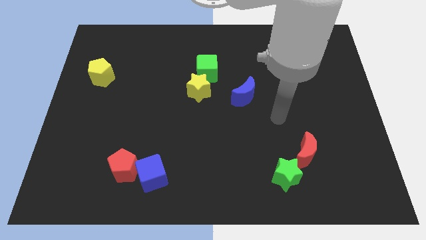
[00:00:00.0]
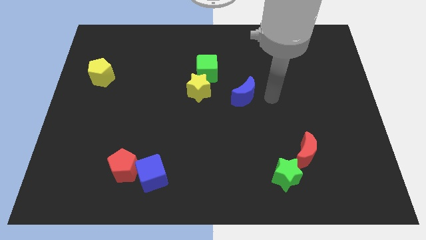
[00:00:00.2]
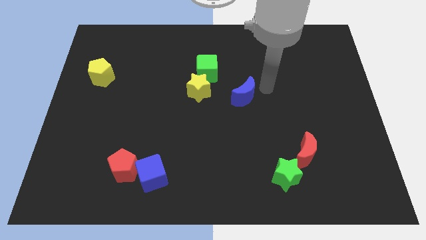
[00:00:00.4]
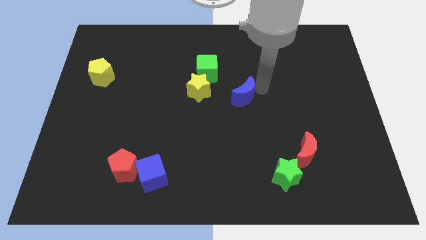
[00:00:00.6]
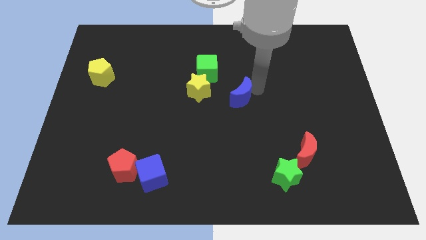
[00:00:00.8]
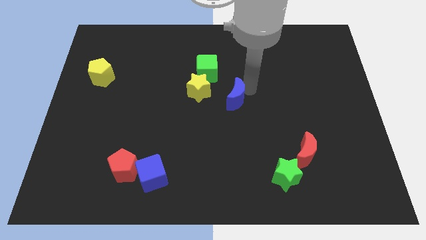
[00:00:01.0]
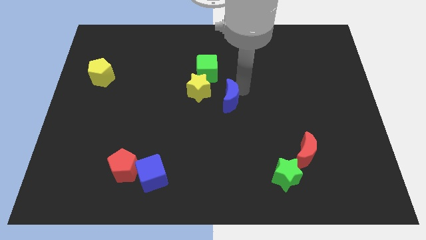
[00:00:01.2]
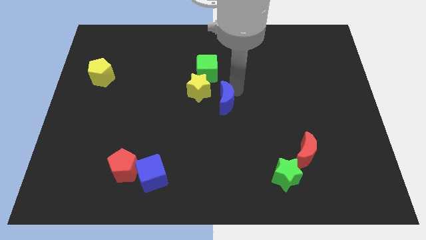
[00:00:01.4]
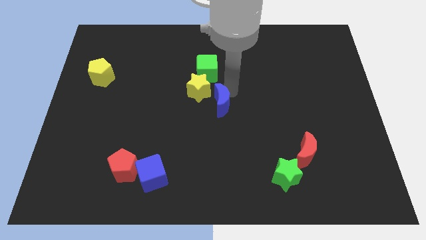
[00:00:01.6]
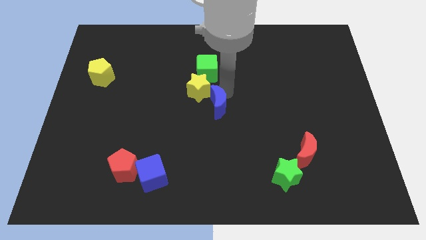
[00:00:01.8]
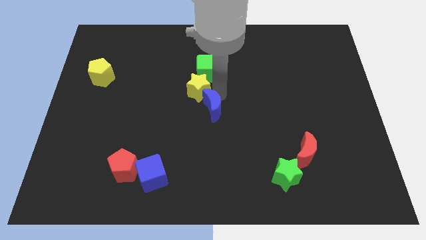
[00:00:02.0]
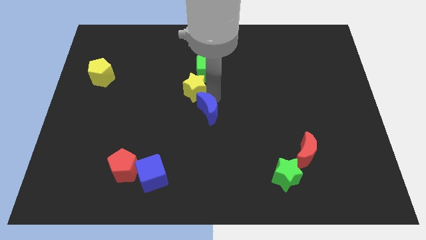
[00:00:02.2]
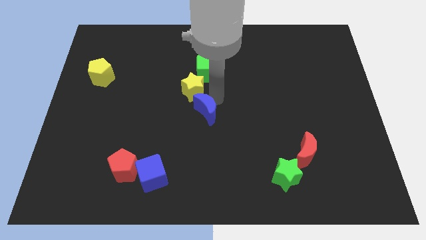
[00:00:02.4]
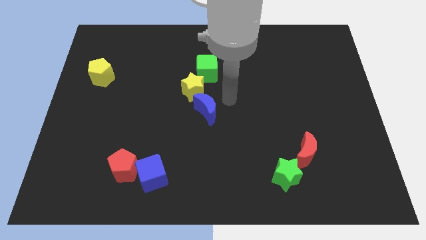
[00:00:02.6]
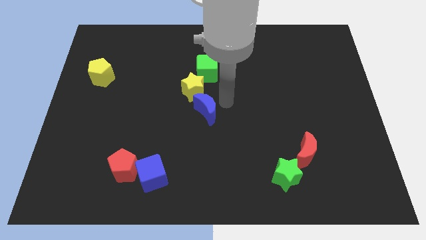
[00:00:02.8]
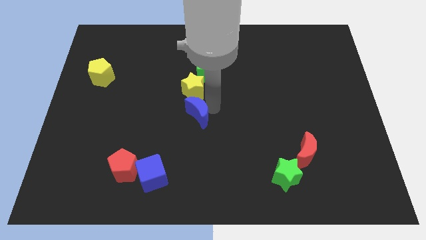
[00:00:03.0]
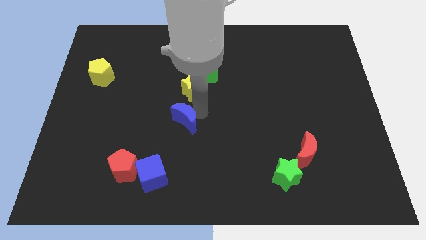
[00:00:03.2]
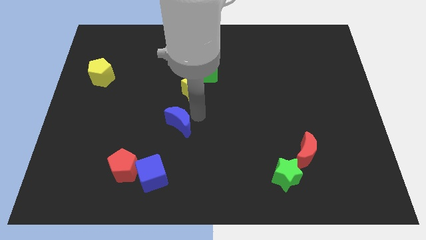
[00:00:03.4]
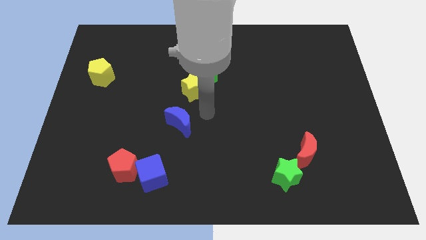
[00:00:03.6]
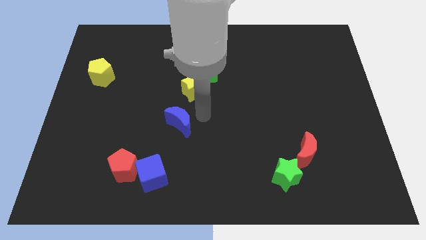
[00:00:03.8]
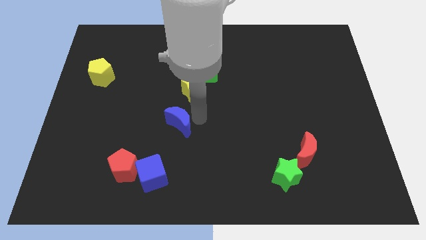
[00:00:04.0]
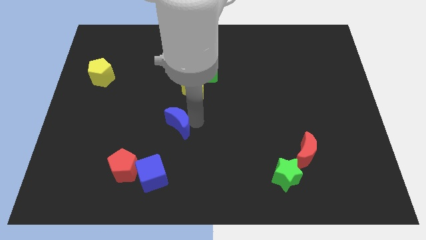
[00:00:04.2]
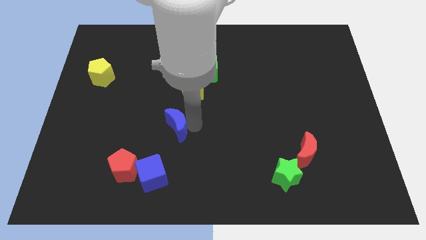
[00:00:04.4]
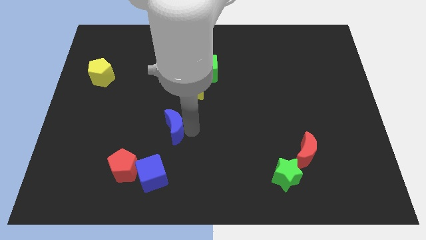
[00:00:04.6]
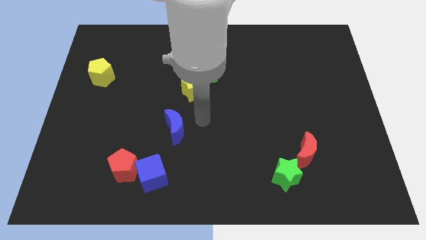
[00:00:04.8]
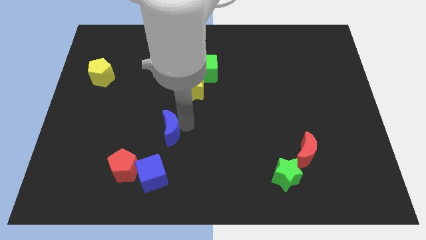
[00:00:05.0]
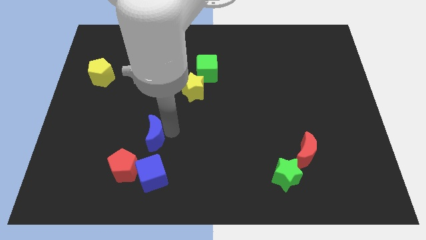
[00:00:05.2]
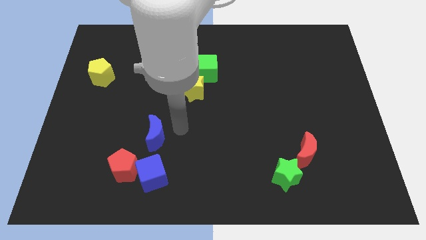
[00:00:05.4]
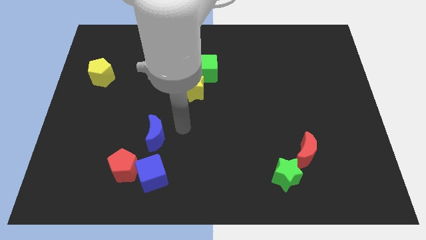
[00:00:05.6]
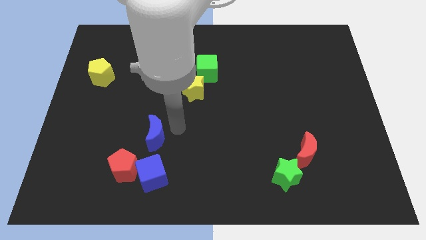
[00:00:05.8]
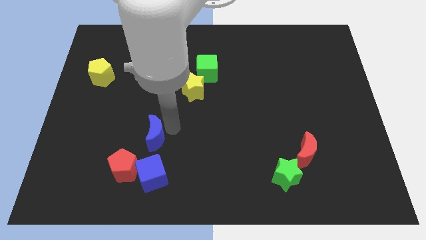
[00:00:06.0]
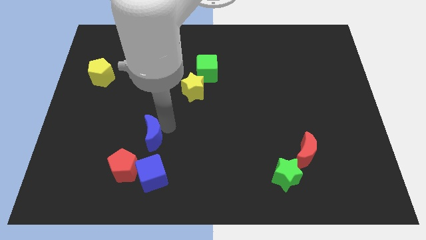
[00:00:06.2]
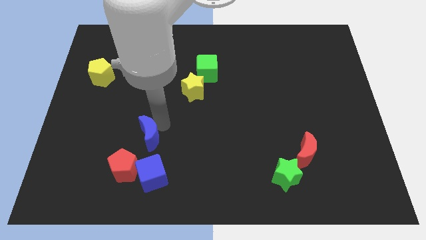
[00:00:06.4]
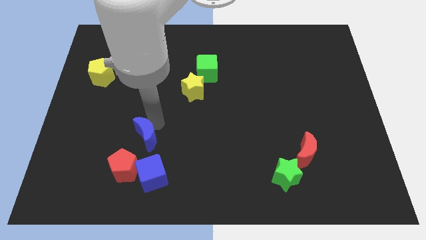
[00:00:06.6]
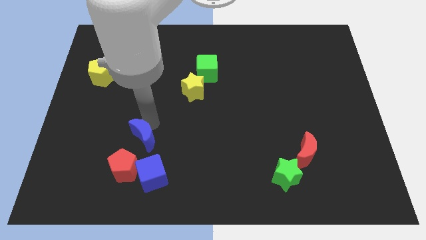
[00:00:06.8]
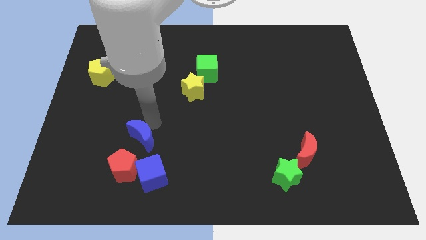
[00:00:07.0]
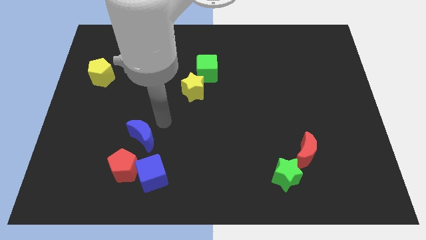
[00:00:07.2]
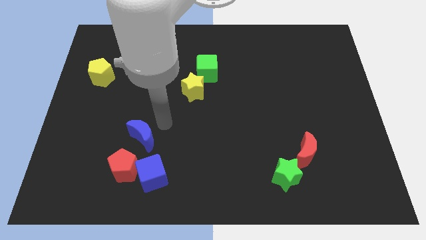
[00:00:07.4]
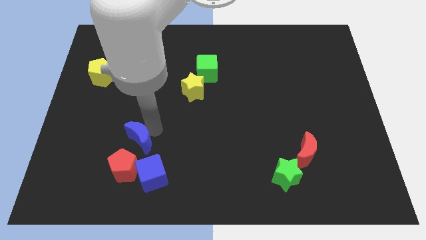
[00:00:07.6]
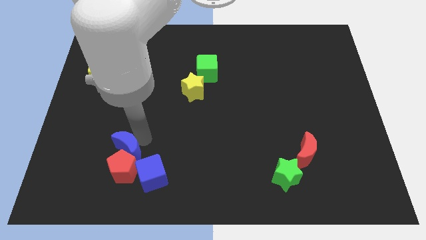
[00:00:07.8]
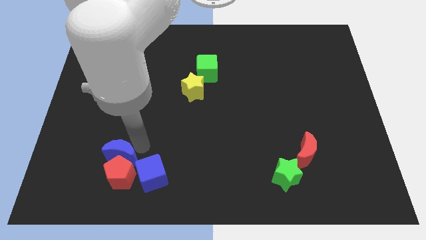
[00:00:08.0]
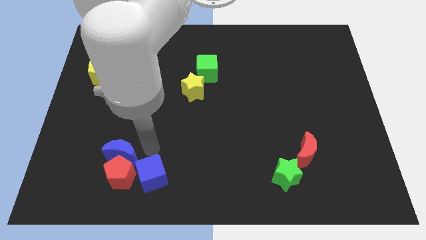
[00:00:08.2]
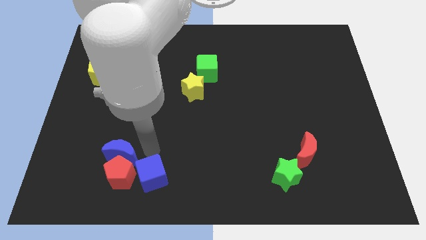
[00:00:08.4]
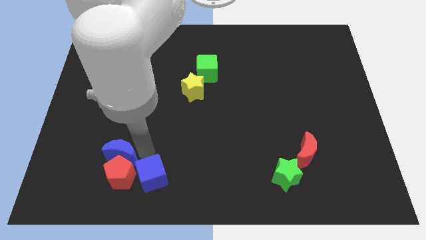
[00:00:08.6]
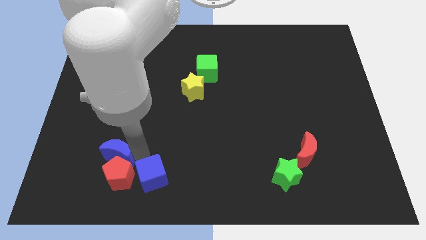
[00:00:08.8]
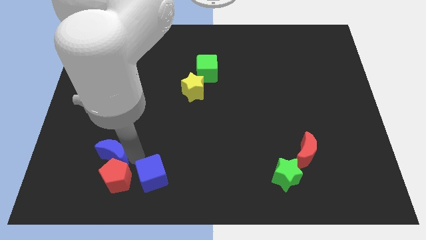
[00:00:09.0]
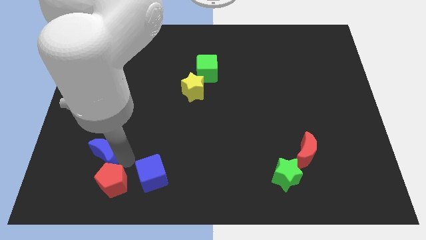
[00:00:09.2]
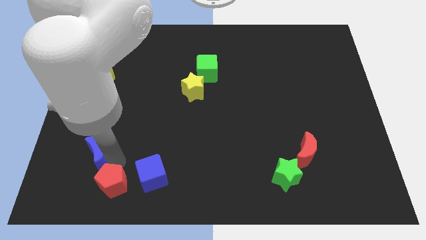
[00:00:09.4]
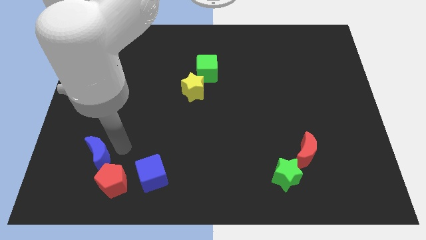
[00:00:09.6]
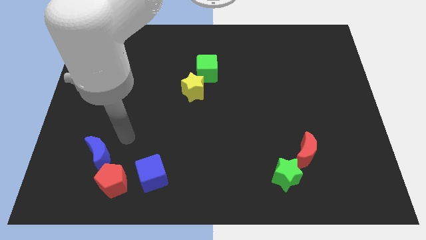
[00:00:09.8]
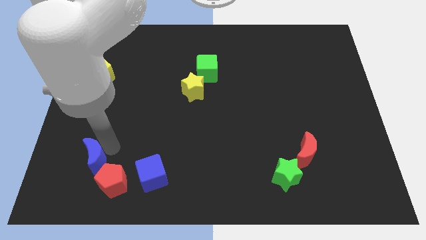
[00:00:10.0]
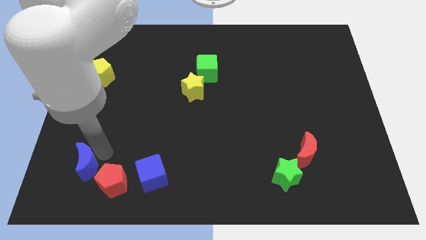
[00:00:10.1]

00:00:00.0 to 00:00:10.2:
move the blue moon to the left of the red pentagon

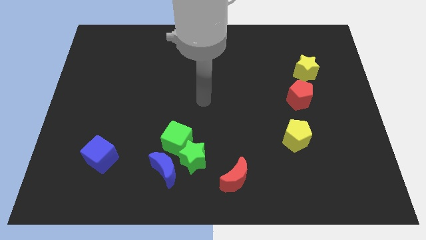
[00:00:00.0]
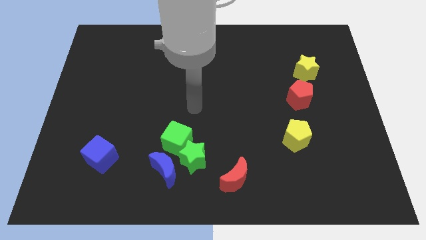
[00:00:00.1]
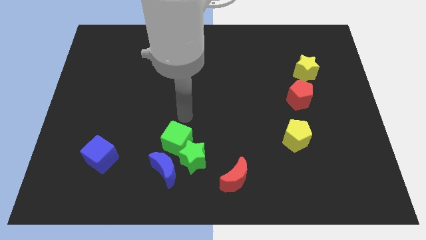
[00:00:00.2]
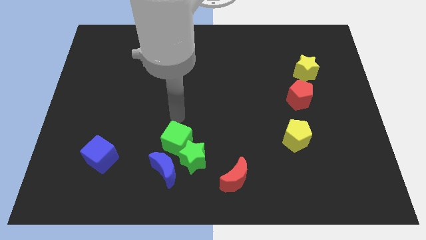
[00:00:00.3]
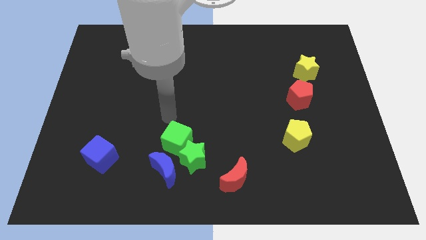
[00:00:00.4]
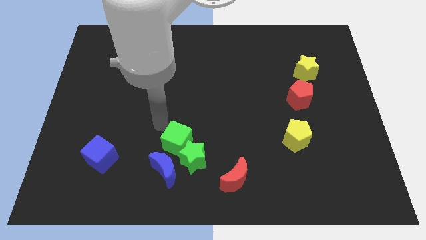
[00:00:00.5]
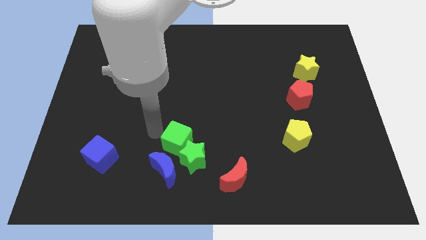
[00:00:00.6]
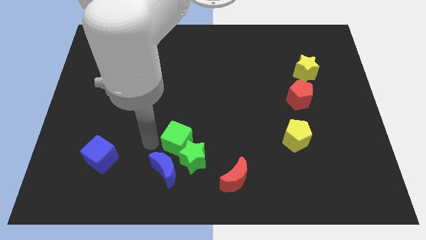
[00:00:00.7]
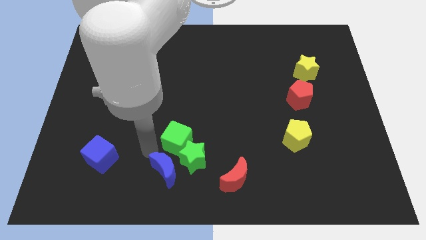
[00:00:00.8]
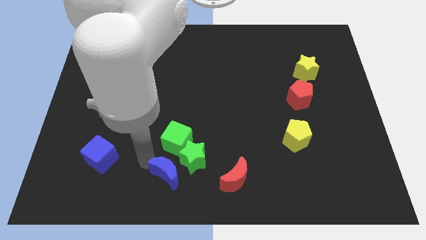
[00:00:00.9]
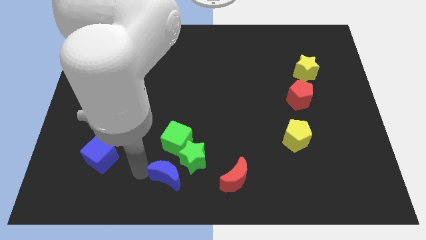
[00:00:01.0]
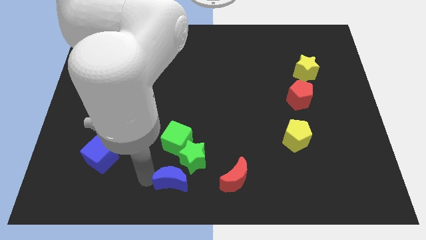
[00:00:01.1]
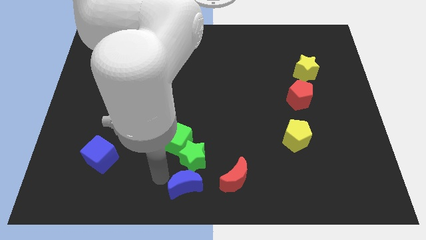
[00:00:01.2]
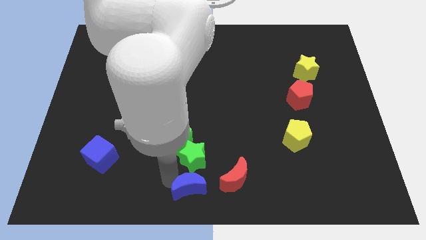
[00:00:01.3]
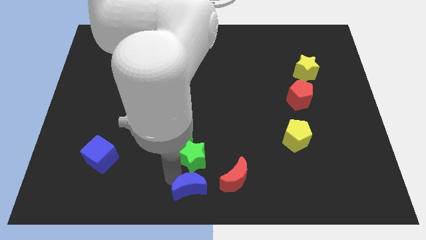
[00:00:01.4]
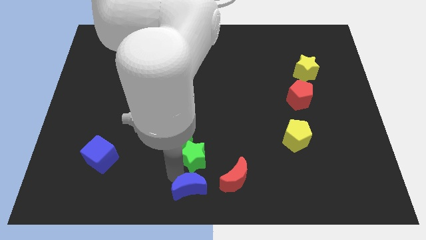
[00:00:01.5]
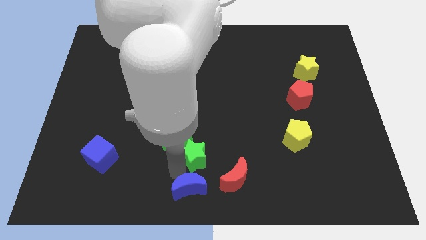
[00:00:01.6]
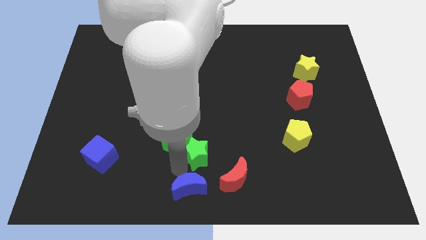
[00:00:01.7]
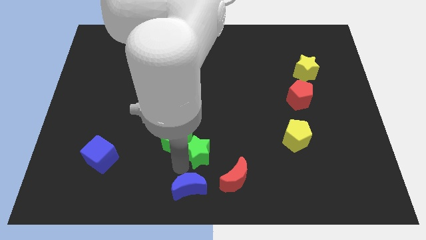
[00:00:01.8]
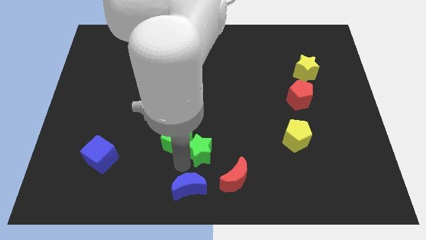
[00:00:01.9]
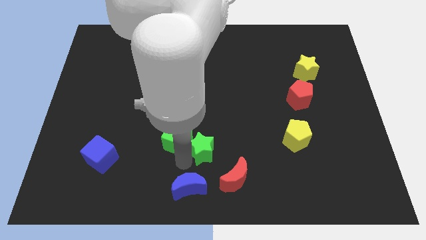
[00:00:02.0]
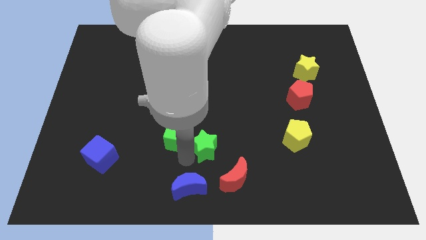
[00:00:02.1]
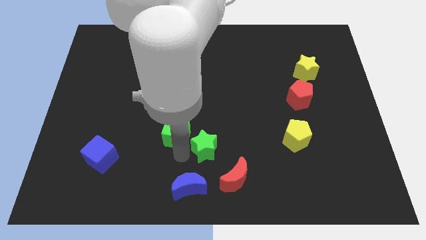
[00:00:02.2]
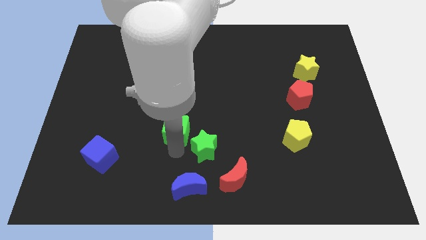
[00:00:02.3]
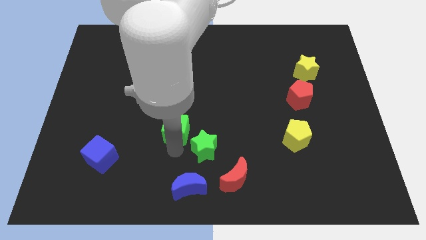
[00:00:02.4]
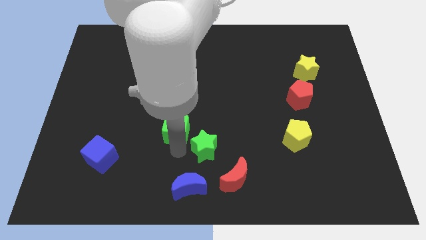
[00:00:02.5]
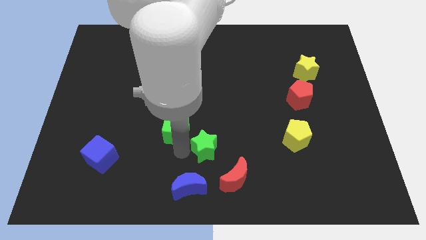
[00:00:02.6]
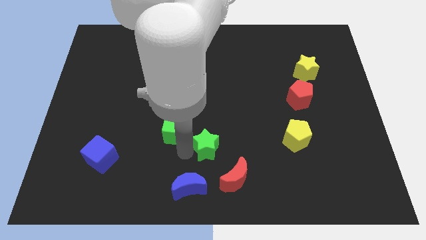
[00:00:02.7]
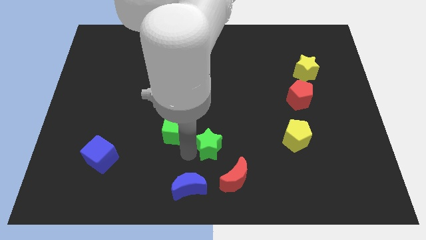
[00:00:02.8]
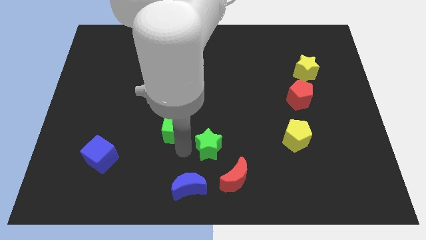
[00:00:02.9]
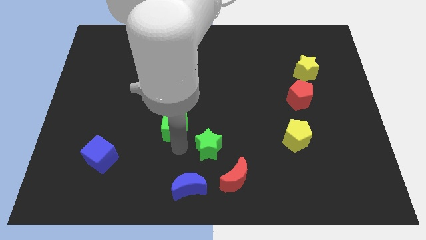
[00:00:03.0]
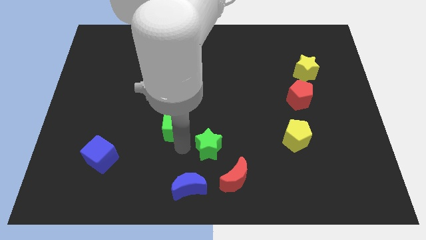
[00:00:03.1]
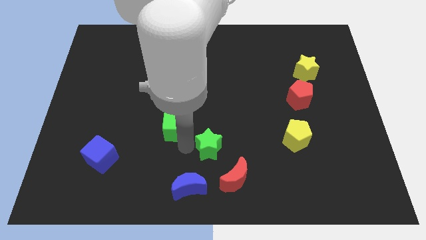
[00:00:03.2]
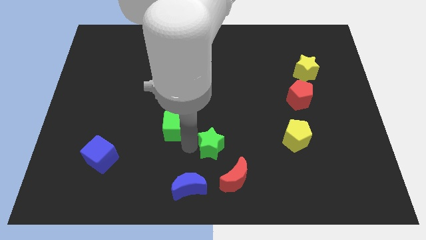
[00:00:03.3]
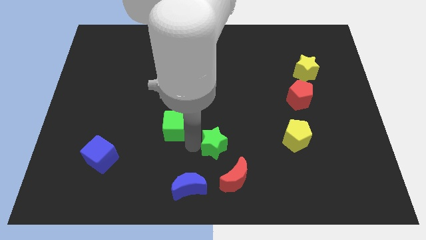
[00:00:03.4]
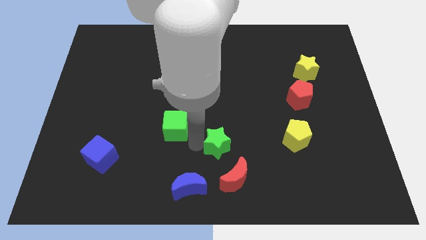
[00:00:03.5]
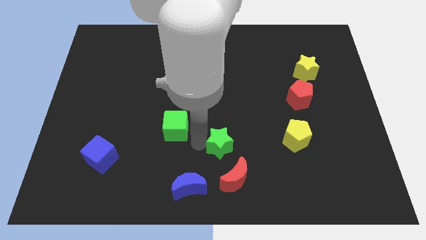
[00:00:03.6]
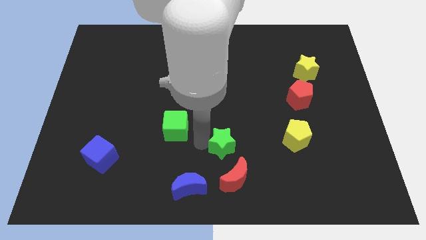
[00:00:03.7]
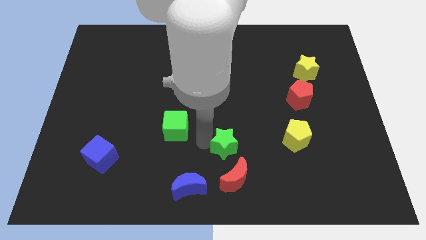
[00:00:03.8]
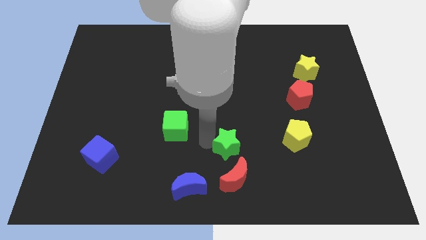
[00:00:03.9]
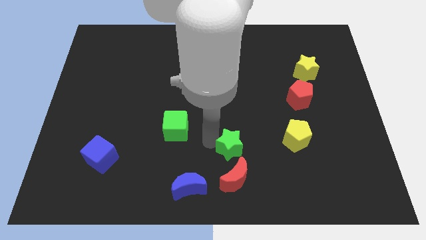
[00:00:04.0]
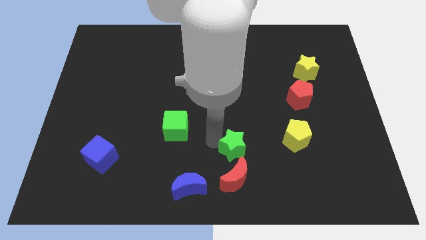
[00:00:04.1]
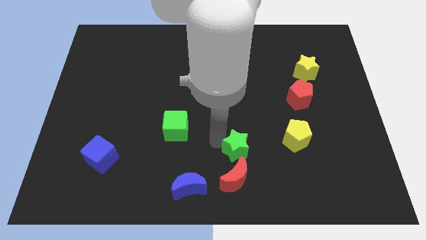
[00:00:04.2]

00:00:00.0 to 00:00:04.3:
slide the green star to the top right side of the red moon
